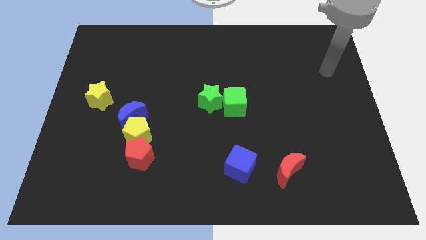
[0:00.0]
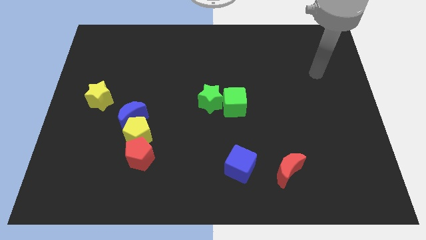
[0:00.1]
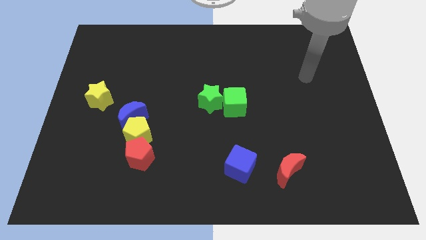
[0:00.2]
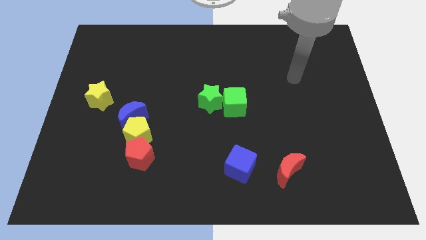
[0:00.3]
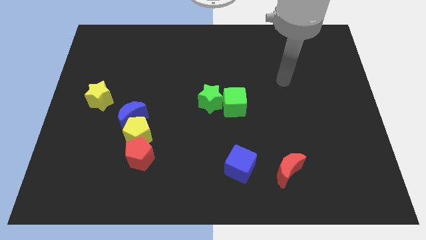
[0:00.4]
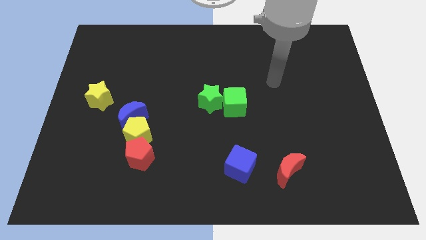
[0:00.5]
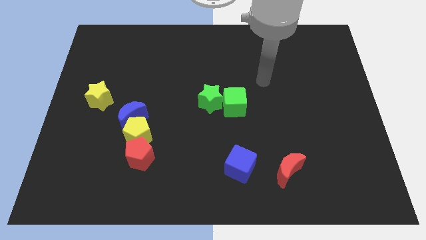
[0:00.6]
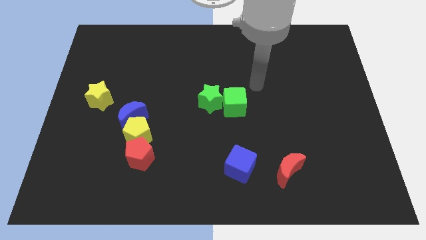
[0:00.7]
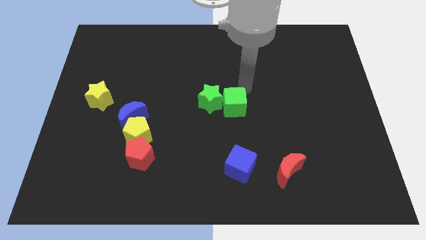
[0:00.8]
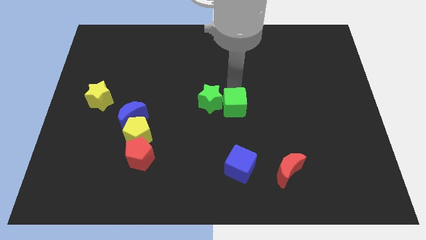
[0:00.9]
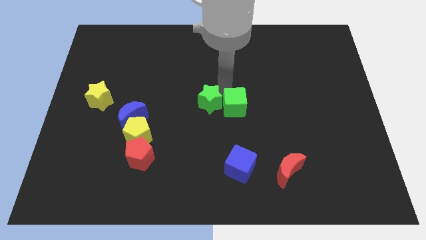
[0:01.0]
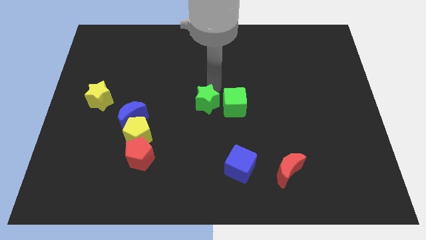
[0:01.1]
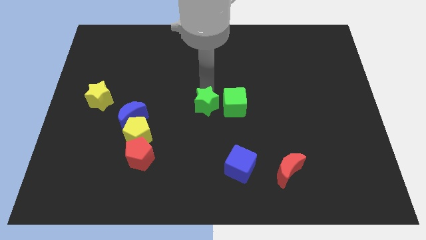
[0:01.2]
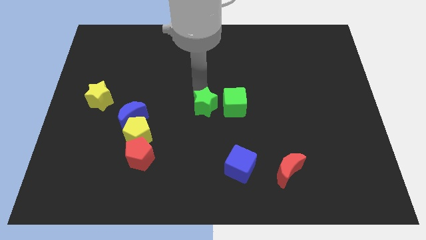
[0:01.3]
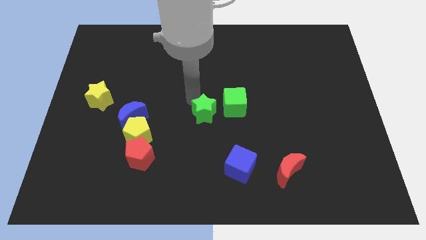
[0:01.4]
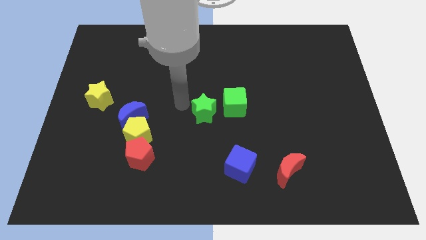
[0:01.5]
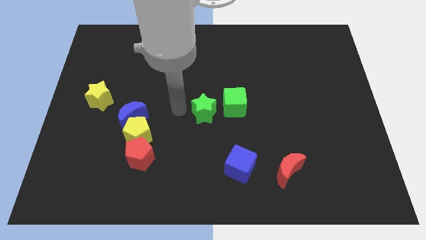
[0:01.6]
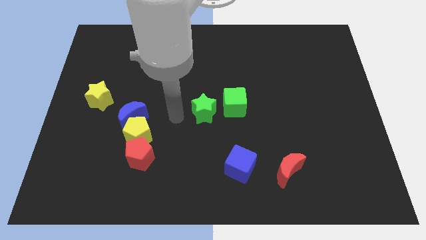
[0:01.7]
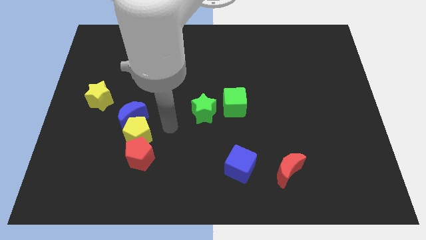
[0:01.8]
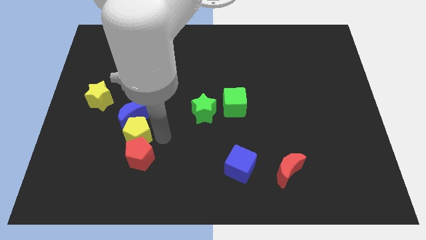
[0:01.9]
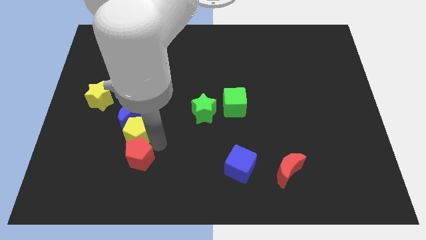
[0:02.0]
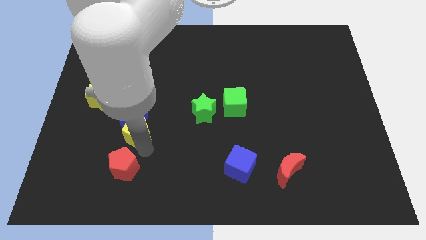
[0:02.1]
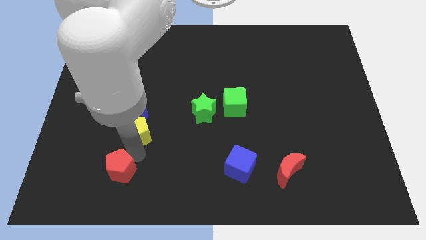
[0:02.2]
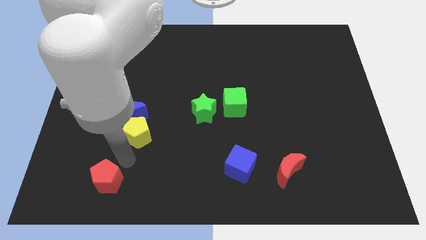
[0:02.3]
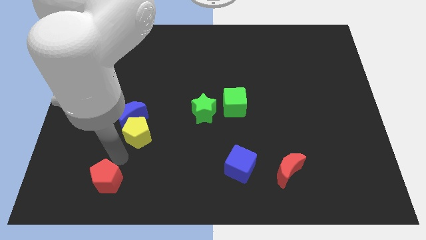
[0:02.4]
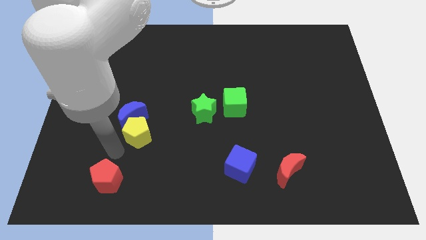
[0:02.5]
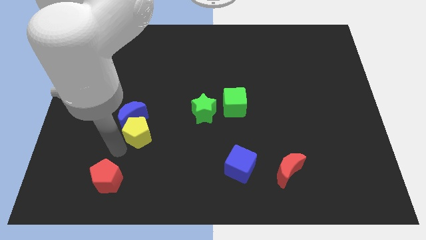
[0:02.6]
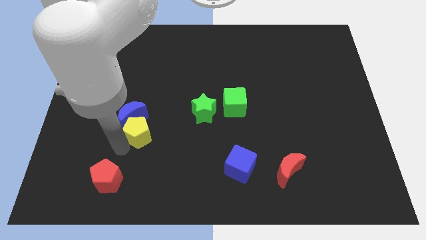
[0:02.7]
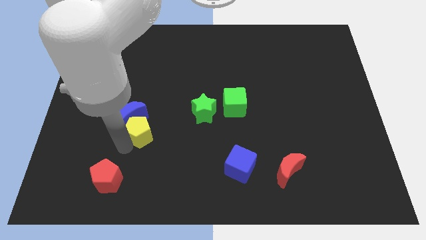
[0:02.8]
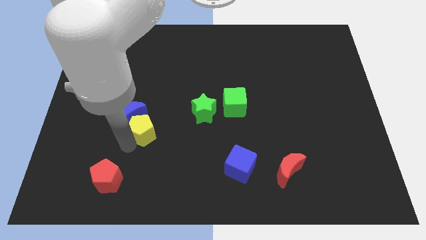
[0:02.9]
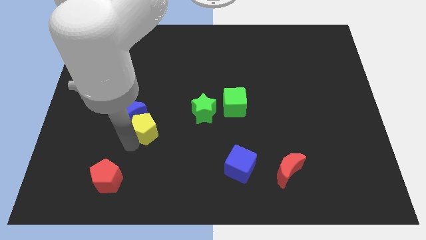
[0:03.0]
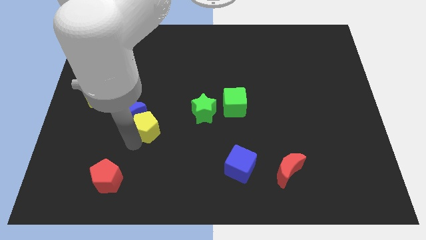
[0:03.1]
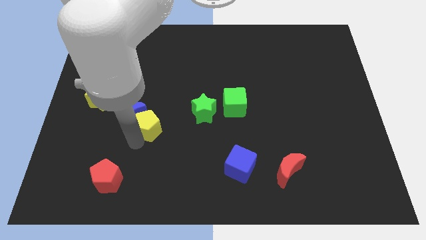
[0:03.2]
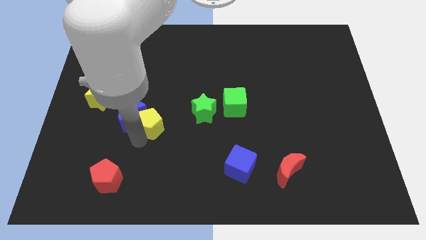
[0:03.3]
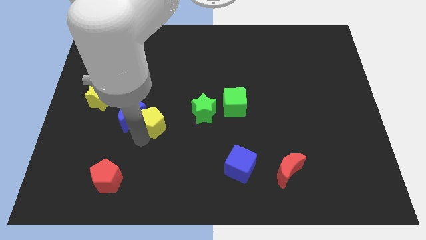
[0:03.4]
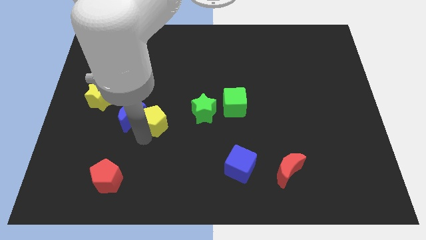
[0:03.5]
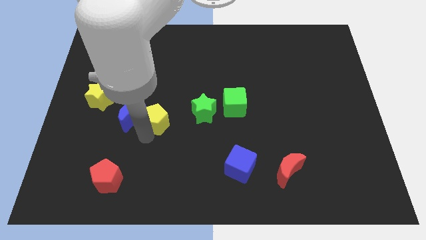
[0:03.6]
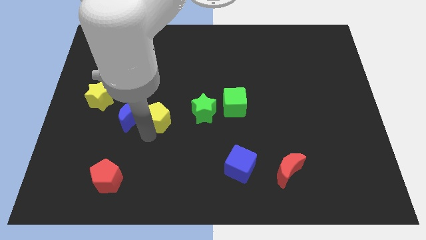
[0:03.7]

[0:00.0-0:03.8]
pull the yellow pentagon apart from the blue moon and red pentagon

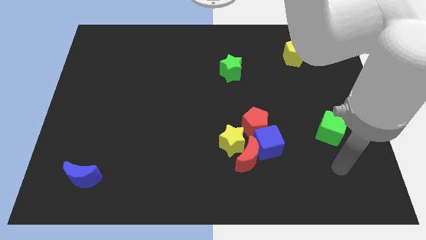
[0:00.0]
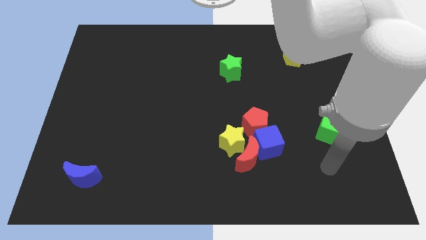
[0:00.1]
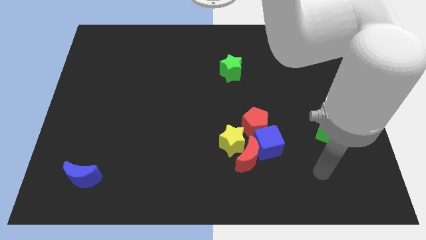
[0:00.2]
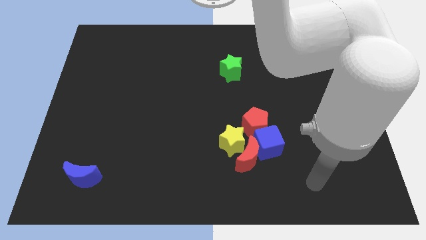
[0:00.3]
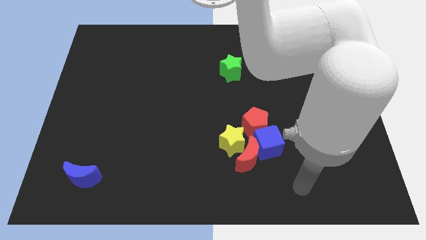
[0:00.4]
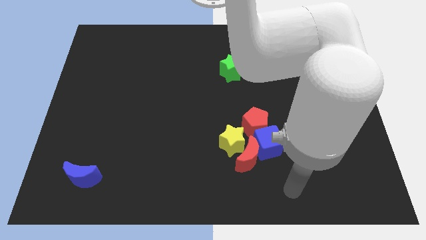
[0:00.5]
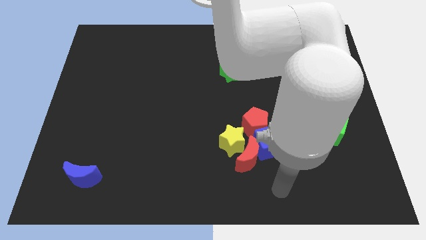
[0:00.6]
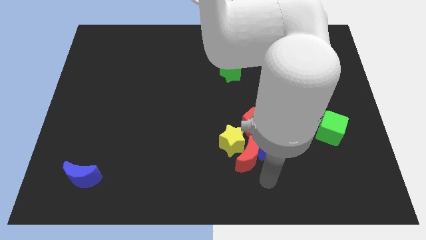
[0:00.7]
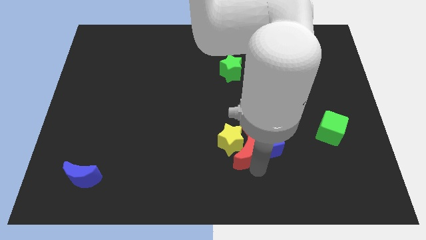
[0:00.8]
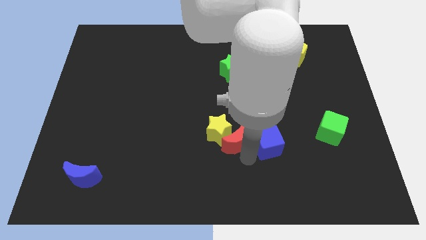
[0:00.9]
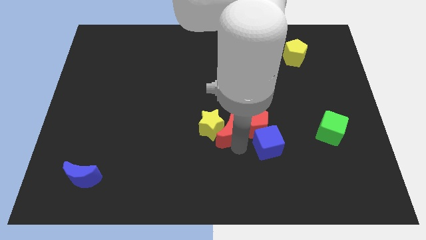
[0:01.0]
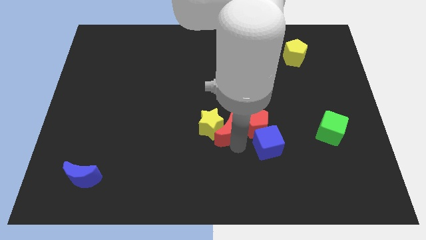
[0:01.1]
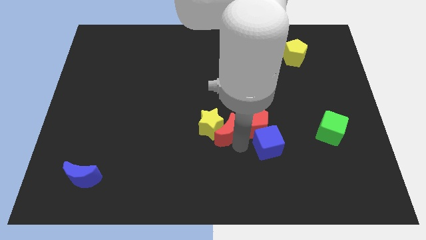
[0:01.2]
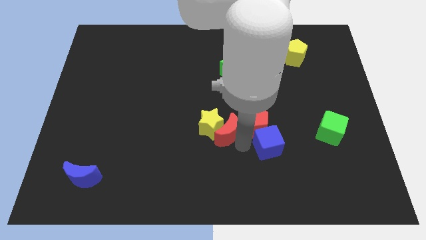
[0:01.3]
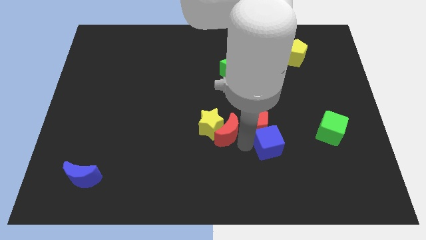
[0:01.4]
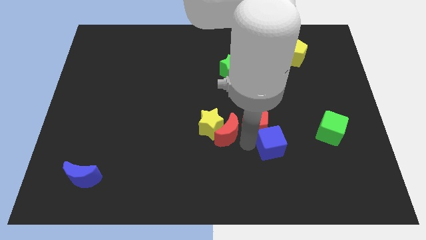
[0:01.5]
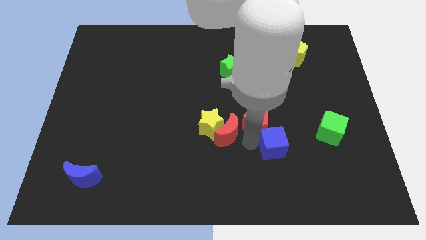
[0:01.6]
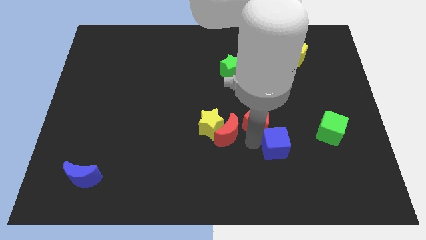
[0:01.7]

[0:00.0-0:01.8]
separate the blue cube from the group of blocks

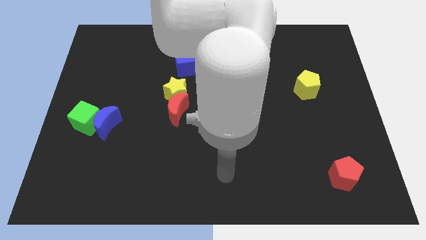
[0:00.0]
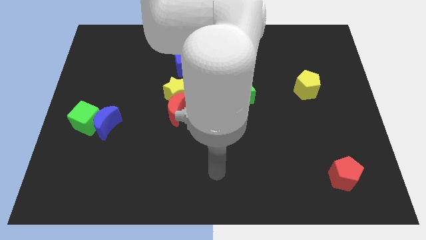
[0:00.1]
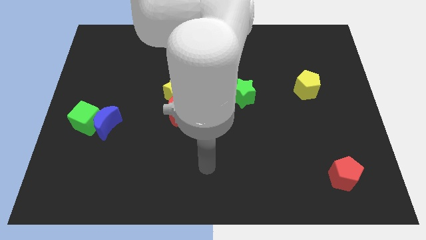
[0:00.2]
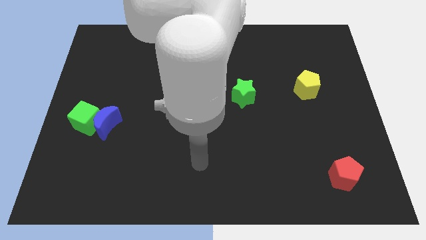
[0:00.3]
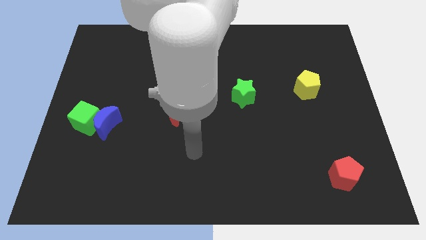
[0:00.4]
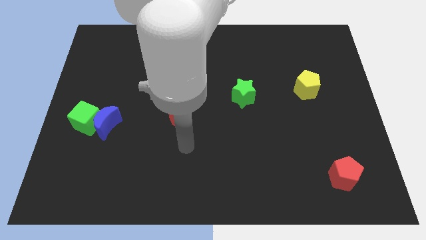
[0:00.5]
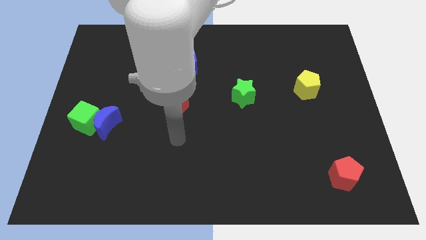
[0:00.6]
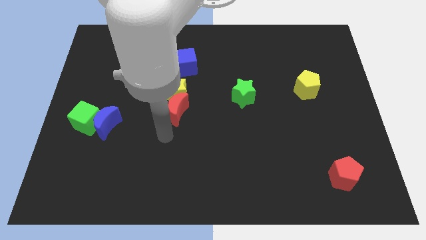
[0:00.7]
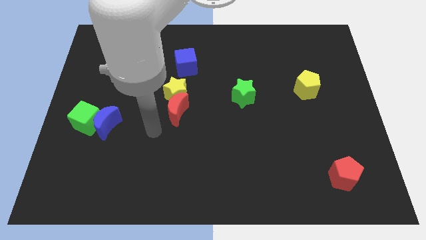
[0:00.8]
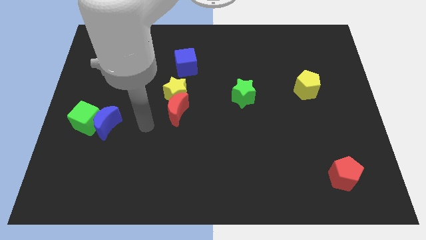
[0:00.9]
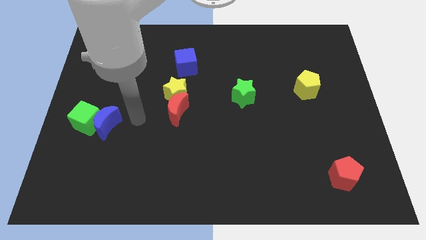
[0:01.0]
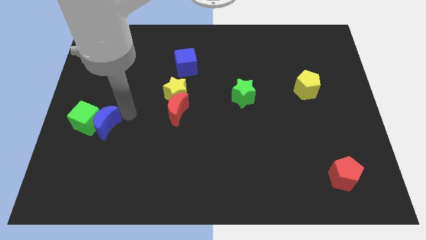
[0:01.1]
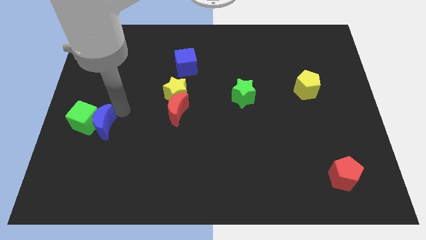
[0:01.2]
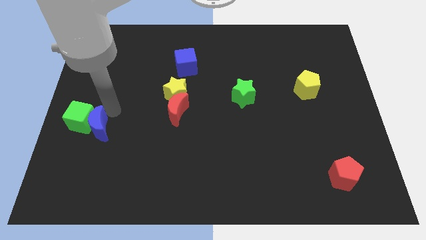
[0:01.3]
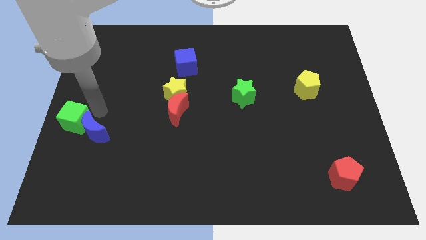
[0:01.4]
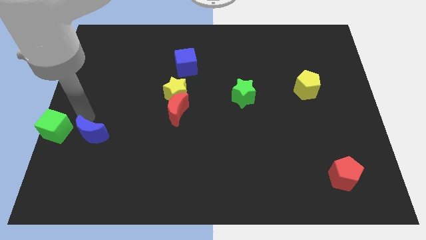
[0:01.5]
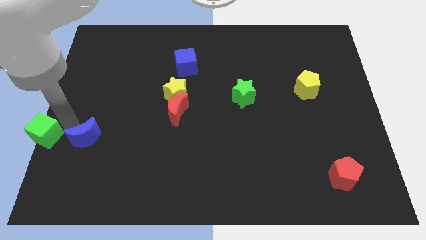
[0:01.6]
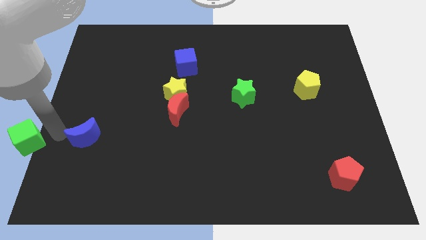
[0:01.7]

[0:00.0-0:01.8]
pull the blue moon apart from the green cube

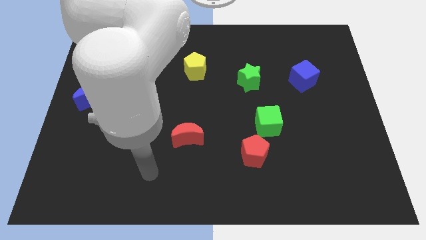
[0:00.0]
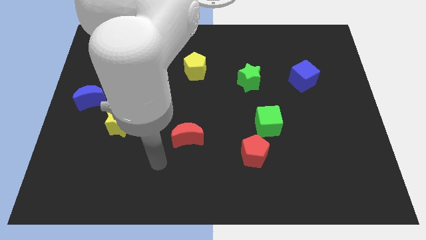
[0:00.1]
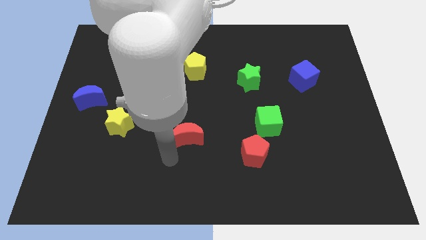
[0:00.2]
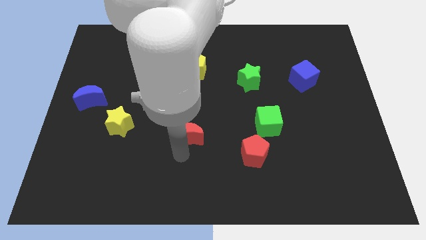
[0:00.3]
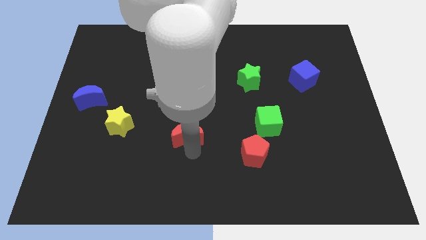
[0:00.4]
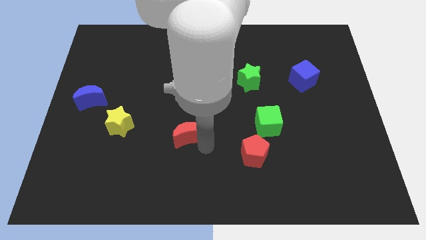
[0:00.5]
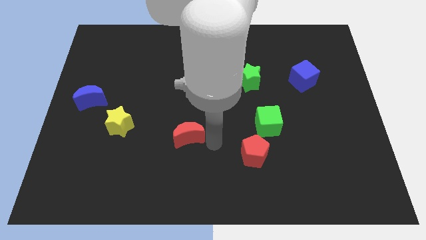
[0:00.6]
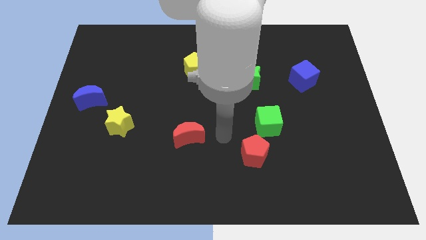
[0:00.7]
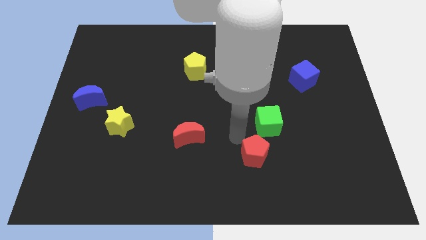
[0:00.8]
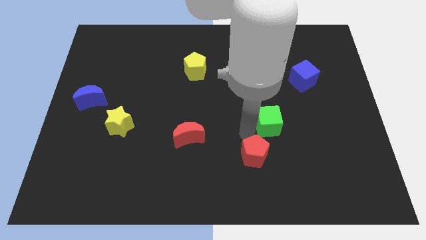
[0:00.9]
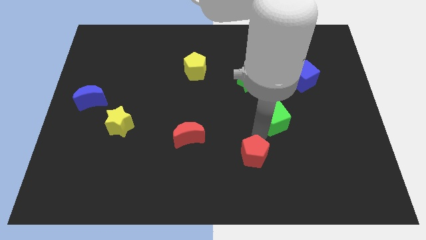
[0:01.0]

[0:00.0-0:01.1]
pull the red pentagon apart from the green cube

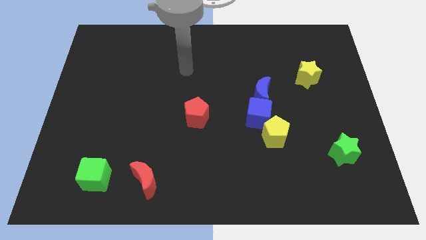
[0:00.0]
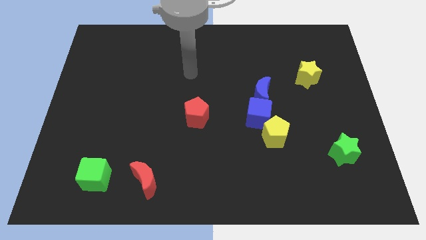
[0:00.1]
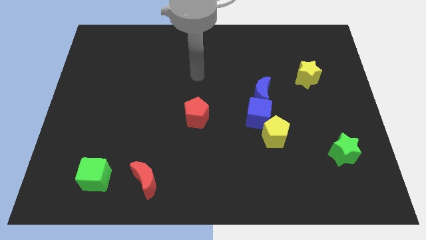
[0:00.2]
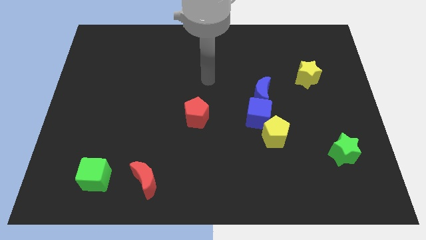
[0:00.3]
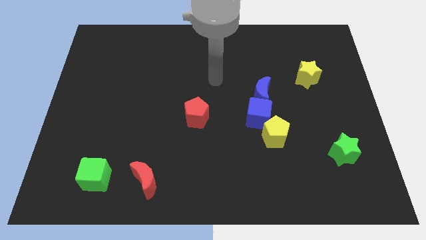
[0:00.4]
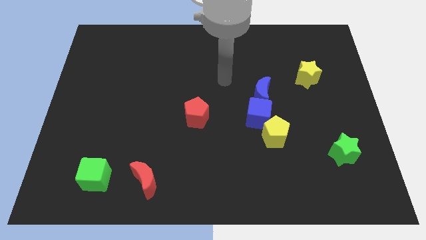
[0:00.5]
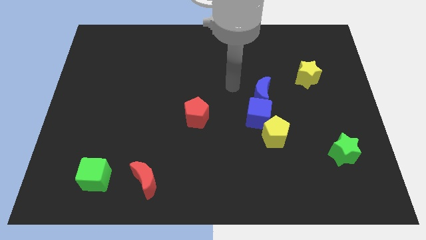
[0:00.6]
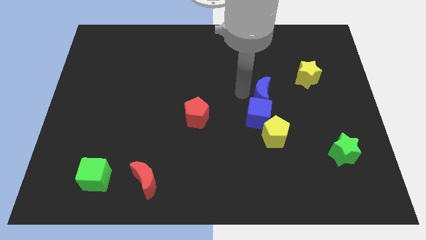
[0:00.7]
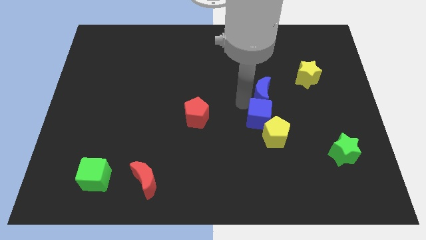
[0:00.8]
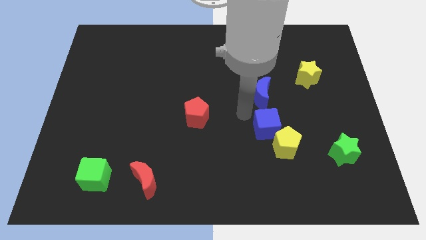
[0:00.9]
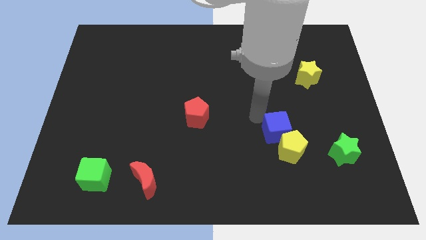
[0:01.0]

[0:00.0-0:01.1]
pull the blue moon apart from the blue cube
